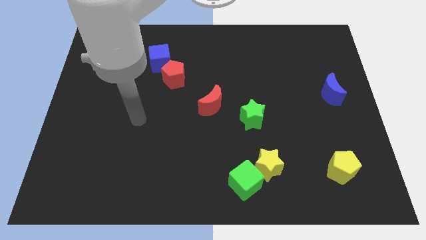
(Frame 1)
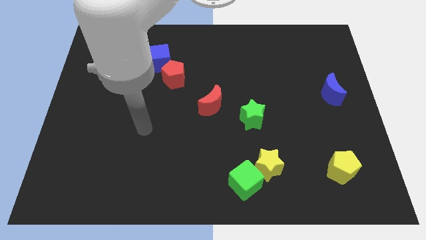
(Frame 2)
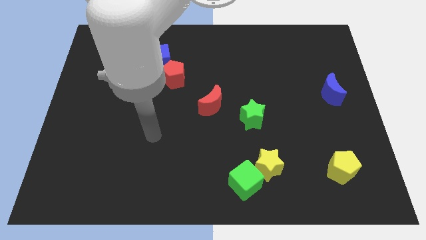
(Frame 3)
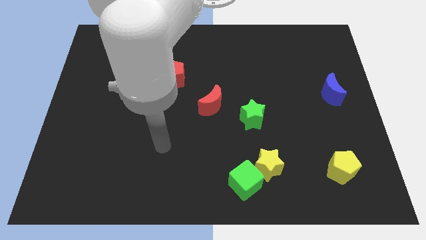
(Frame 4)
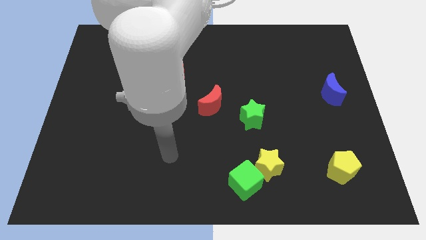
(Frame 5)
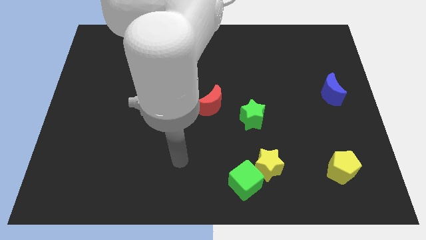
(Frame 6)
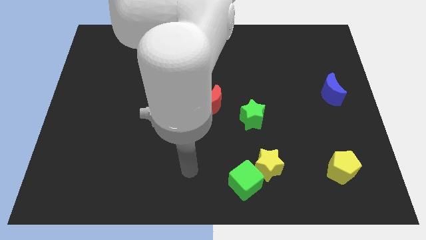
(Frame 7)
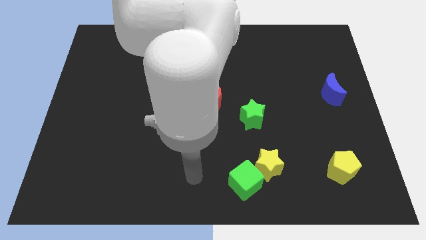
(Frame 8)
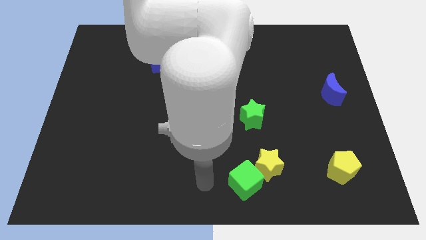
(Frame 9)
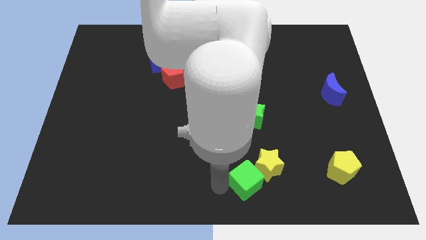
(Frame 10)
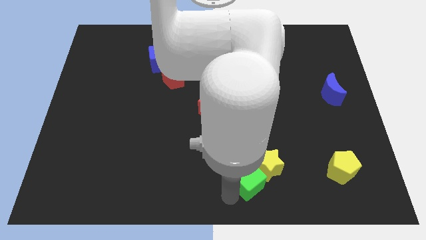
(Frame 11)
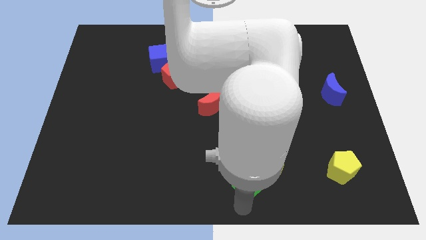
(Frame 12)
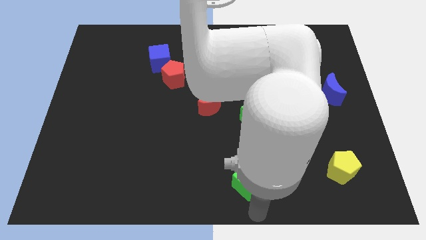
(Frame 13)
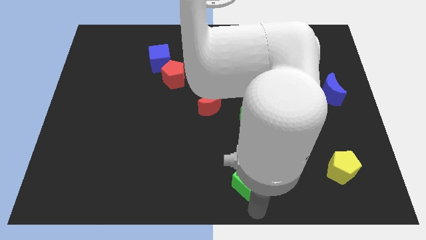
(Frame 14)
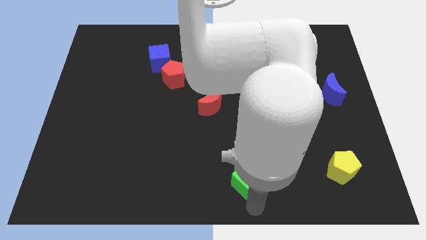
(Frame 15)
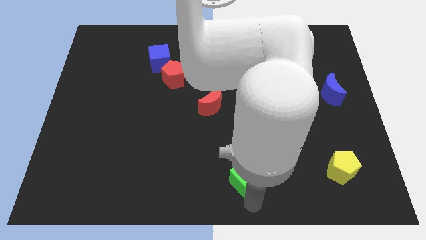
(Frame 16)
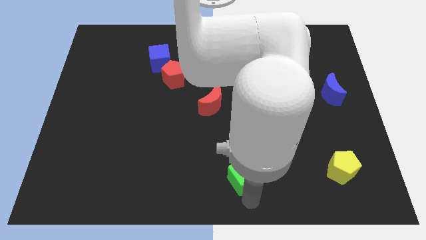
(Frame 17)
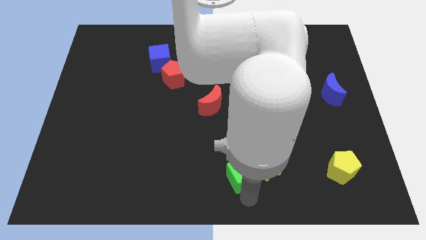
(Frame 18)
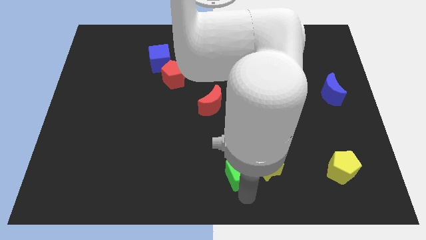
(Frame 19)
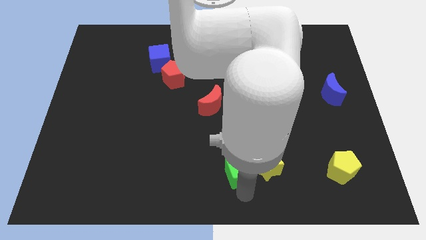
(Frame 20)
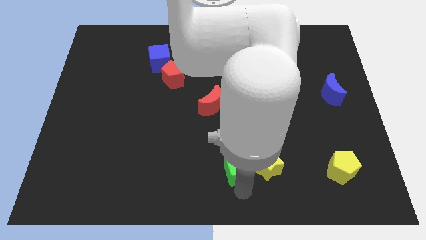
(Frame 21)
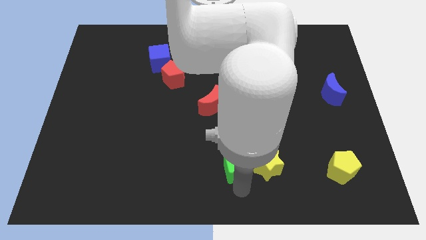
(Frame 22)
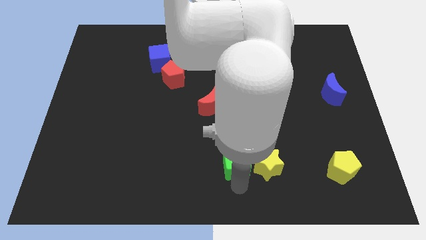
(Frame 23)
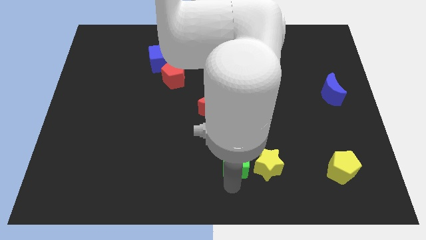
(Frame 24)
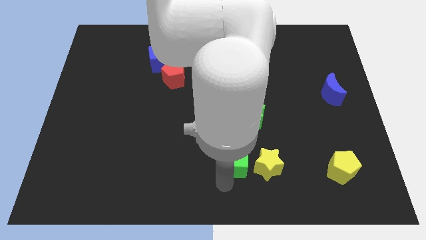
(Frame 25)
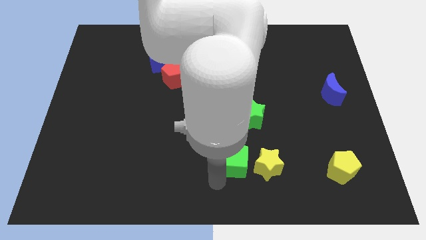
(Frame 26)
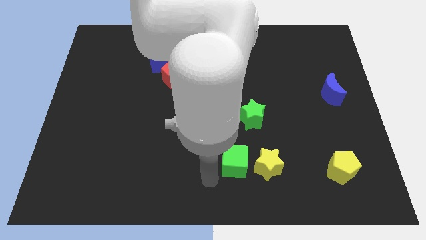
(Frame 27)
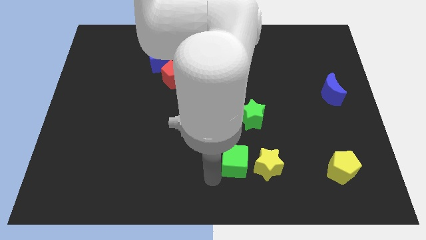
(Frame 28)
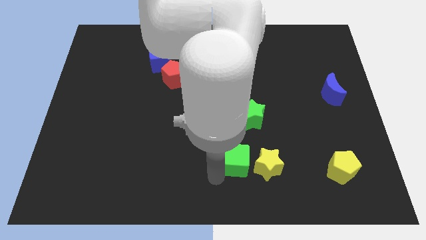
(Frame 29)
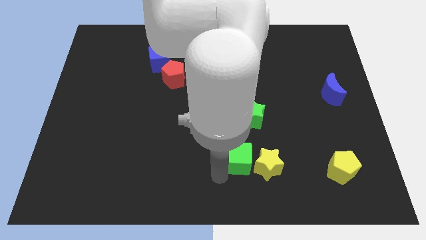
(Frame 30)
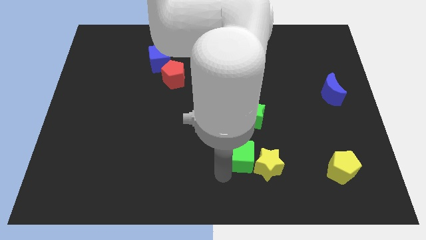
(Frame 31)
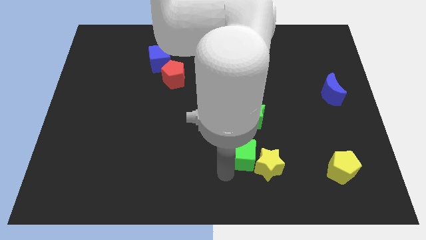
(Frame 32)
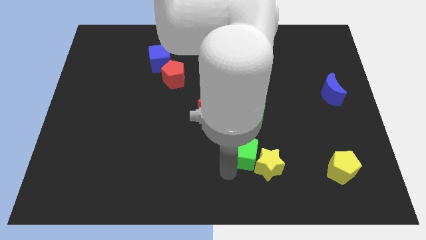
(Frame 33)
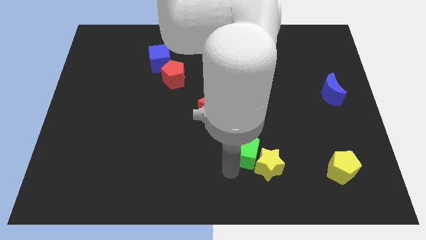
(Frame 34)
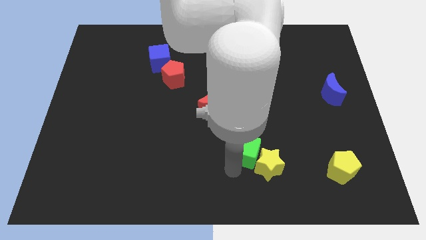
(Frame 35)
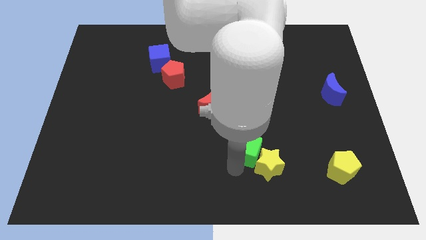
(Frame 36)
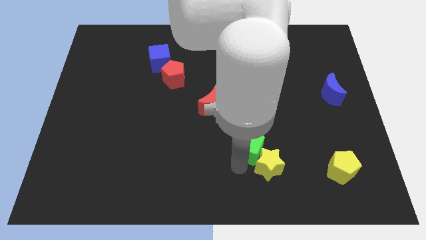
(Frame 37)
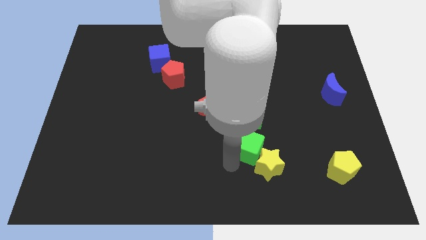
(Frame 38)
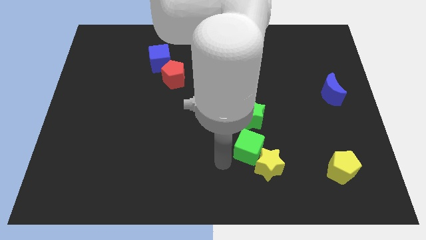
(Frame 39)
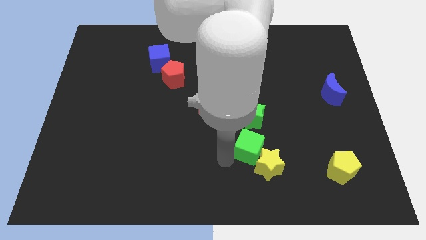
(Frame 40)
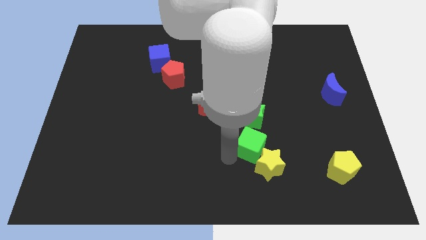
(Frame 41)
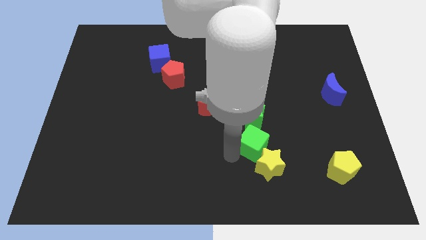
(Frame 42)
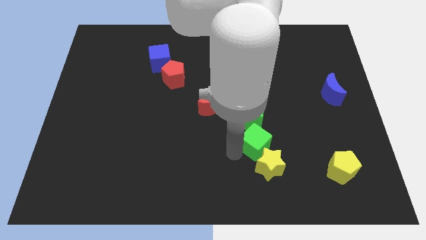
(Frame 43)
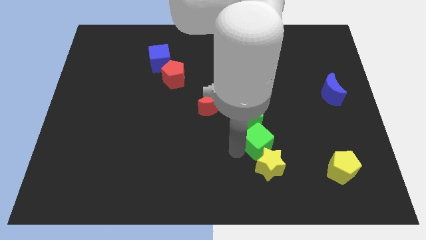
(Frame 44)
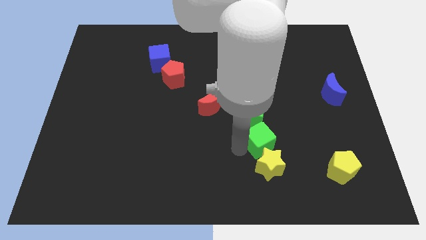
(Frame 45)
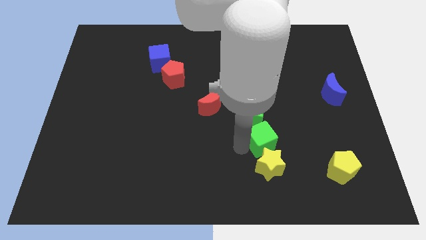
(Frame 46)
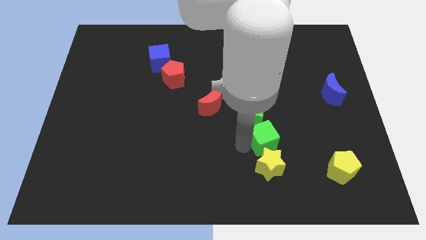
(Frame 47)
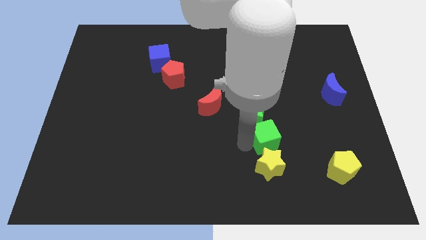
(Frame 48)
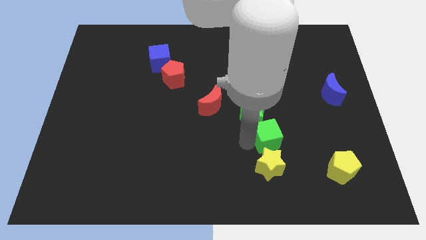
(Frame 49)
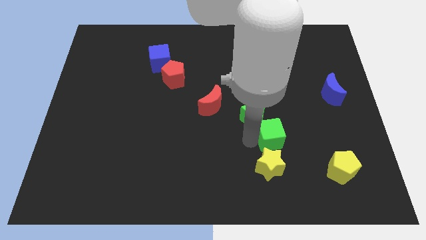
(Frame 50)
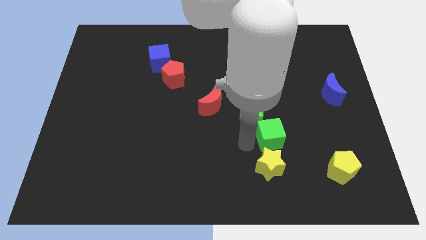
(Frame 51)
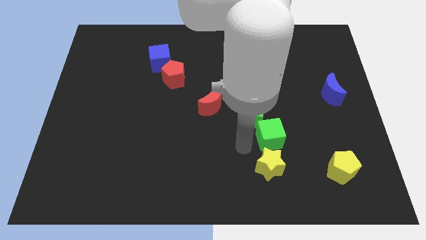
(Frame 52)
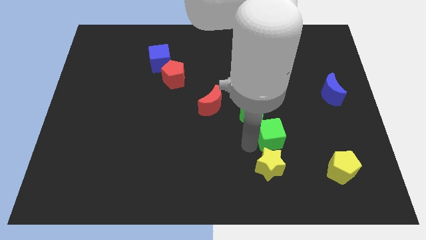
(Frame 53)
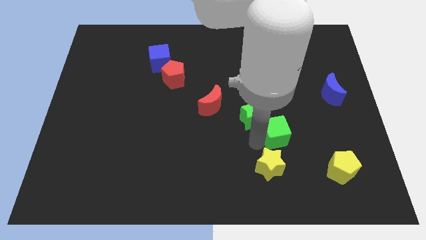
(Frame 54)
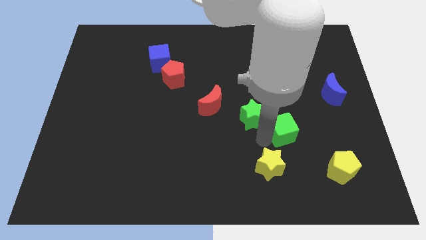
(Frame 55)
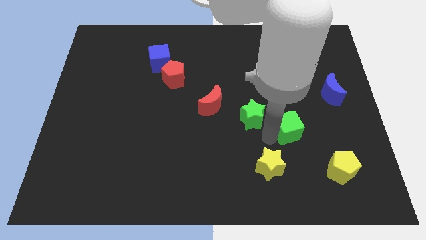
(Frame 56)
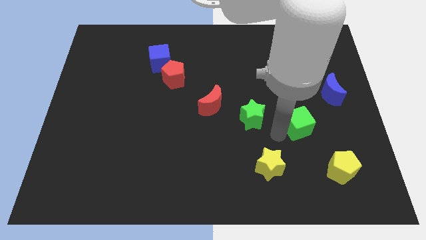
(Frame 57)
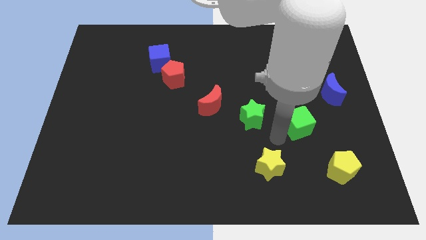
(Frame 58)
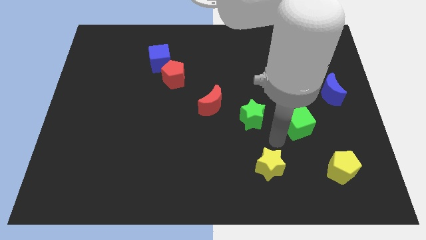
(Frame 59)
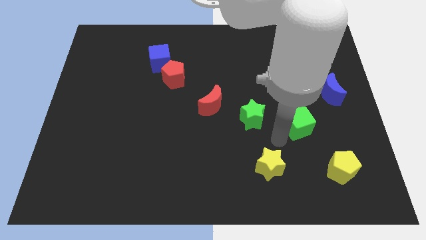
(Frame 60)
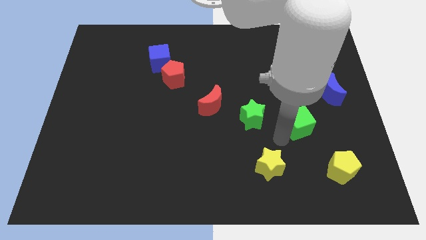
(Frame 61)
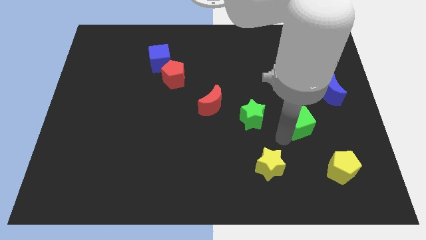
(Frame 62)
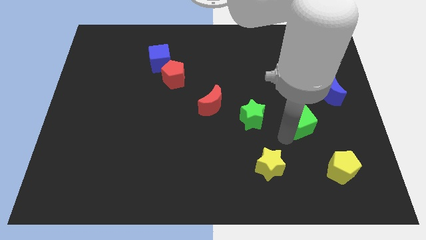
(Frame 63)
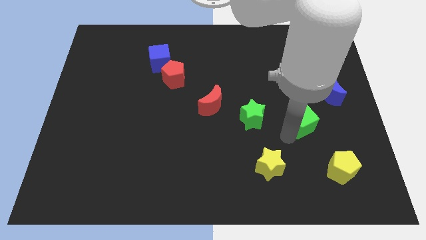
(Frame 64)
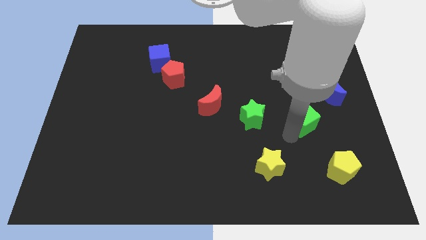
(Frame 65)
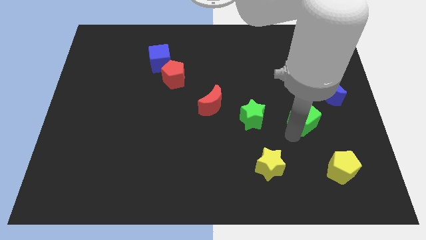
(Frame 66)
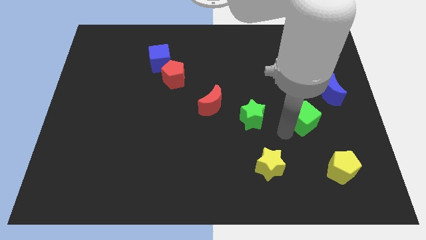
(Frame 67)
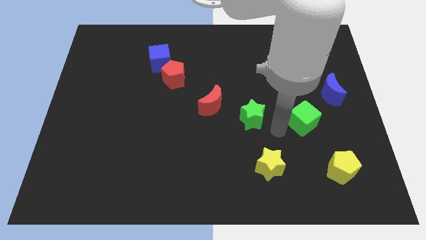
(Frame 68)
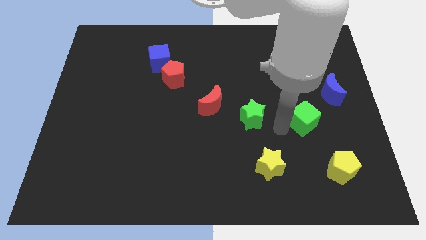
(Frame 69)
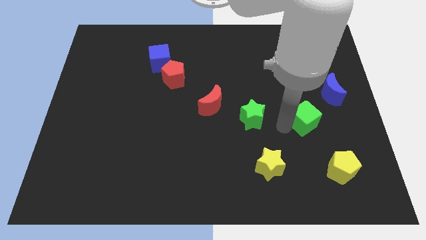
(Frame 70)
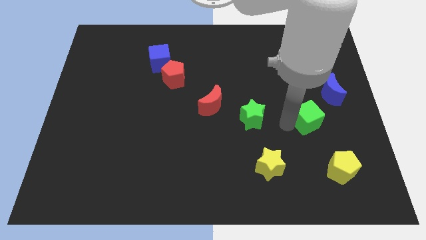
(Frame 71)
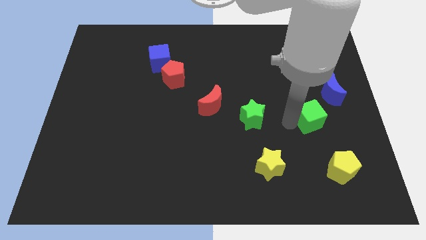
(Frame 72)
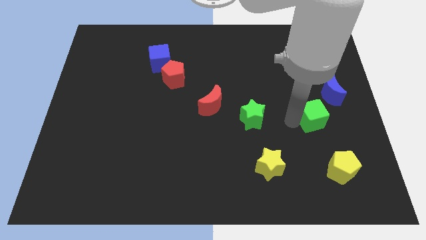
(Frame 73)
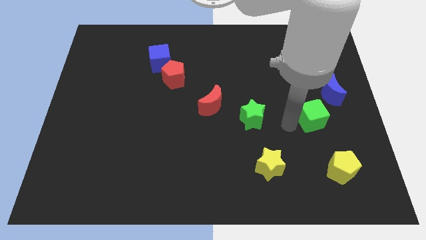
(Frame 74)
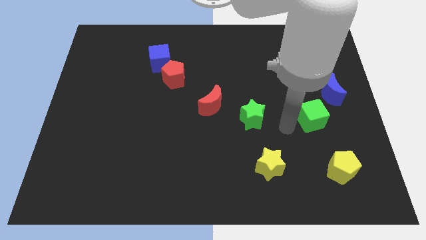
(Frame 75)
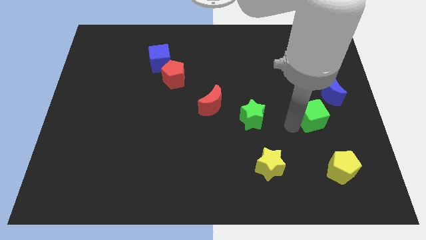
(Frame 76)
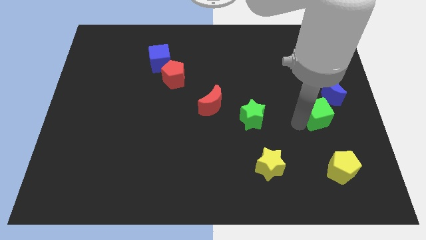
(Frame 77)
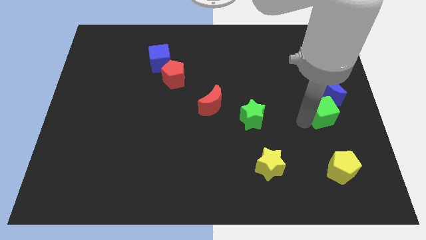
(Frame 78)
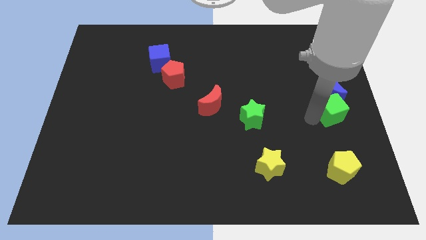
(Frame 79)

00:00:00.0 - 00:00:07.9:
slide the green cube to the right side of the board

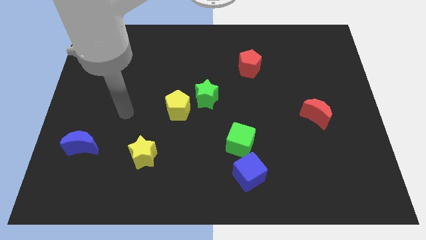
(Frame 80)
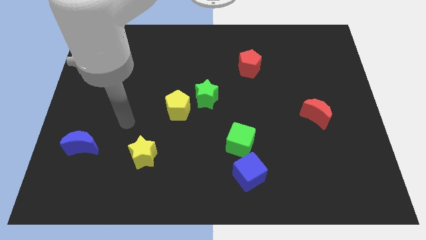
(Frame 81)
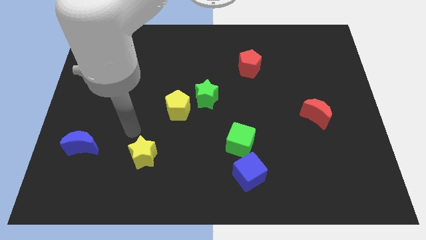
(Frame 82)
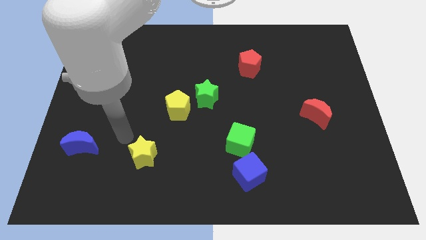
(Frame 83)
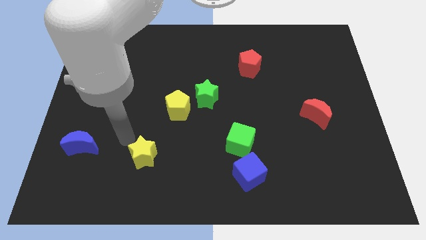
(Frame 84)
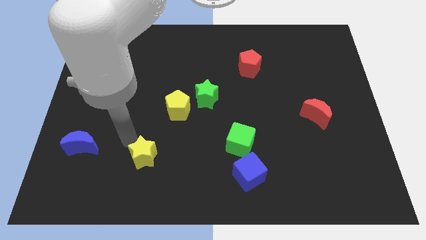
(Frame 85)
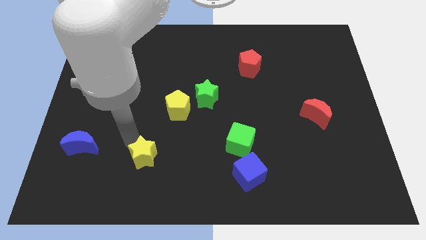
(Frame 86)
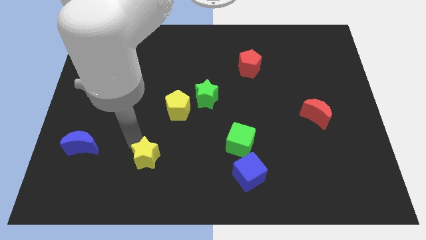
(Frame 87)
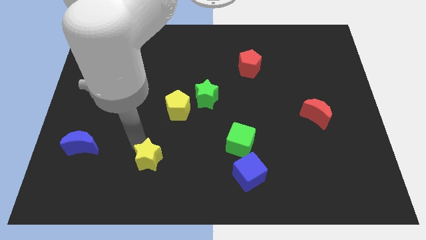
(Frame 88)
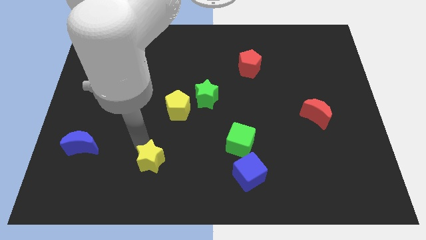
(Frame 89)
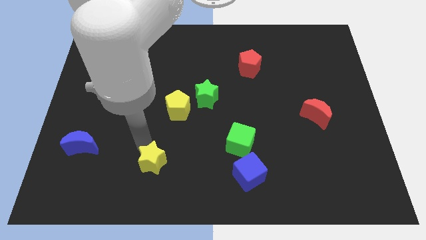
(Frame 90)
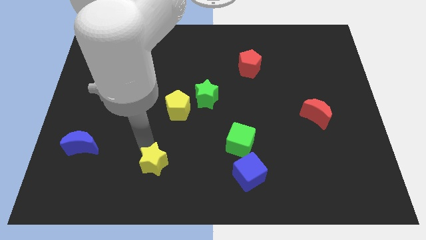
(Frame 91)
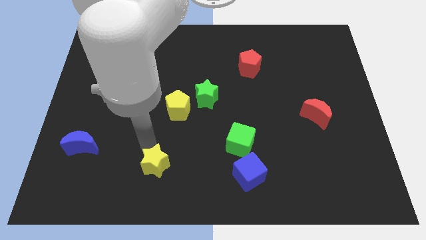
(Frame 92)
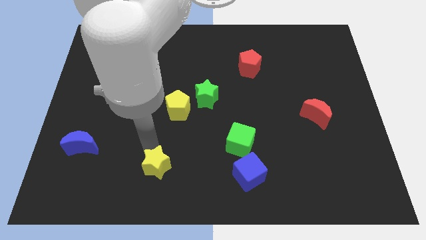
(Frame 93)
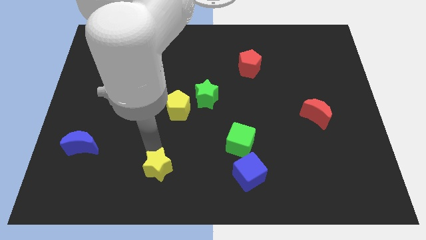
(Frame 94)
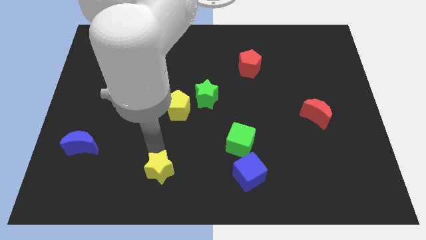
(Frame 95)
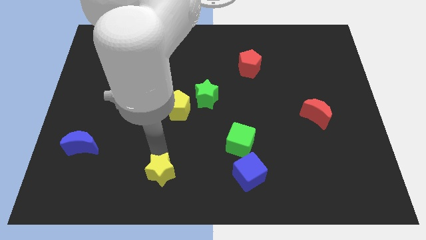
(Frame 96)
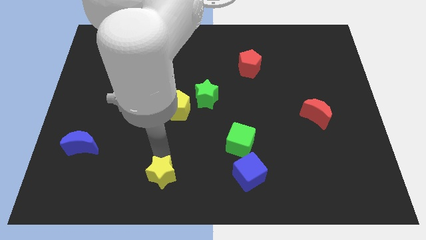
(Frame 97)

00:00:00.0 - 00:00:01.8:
slide the yellow star to the bottom side
